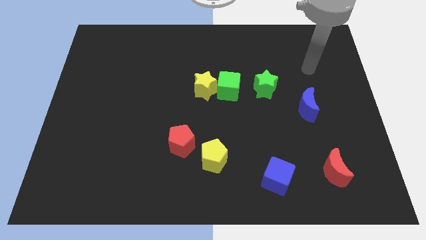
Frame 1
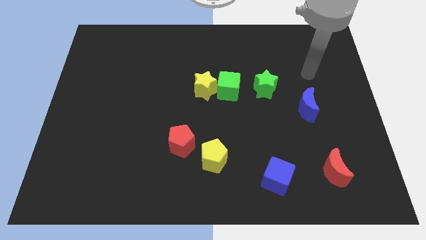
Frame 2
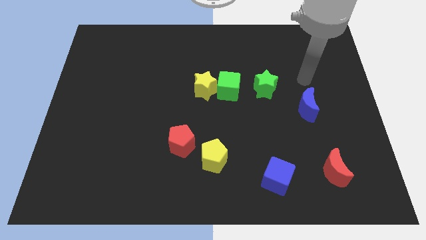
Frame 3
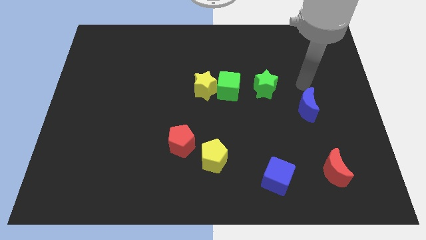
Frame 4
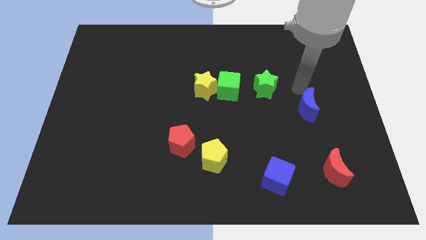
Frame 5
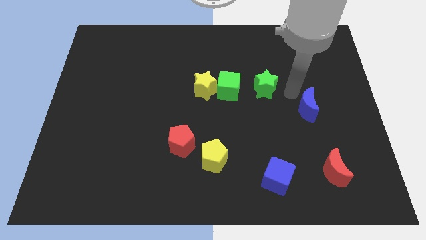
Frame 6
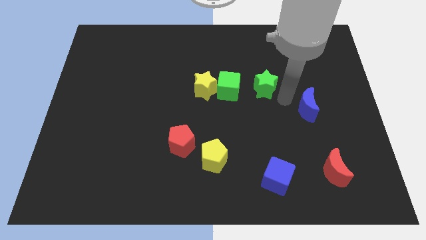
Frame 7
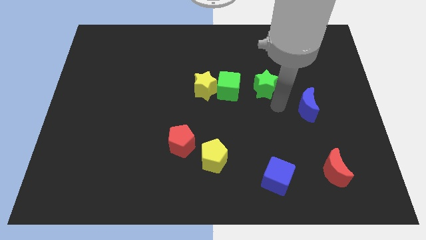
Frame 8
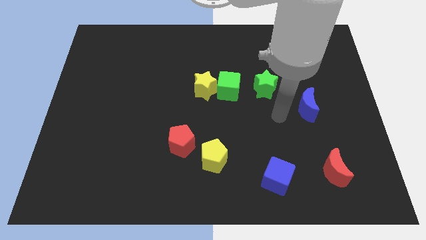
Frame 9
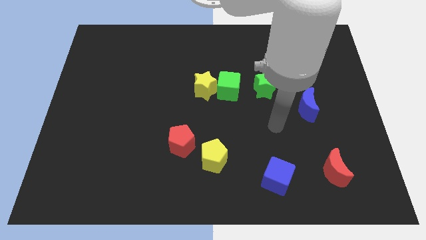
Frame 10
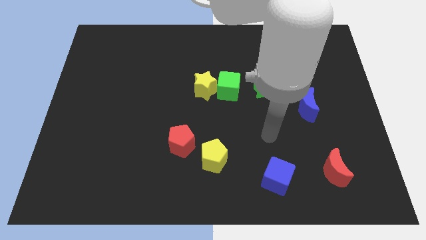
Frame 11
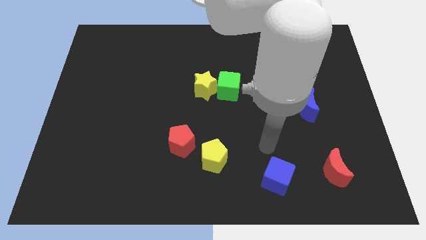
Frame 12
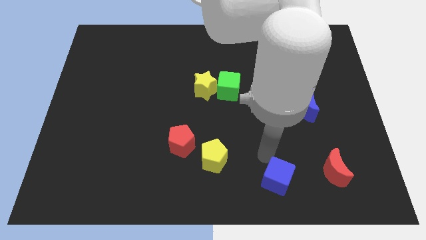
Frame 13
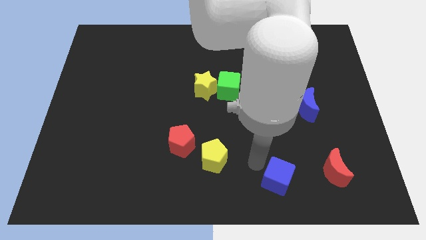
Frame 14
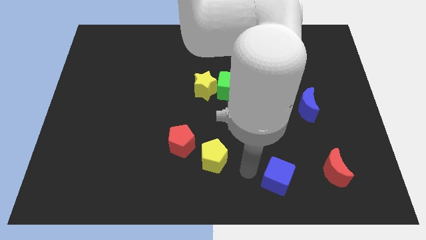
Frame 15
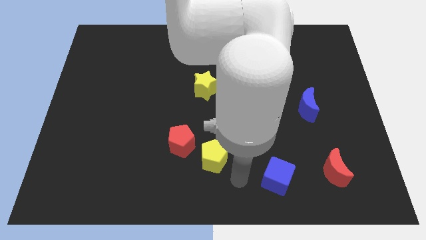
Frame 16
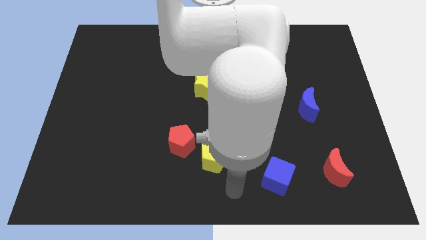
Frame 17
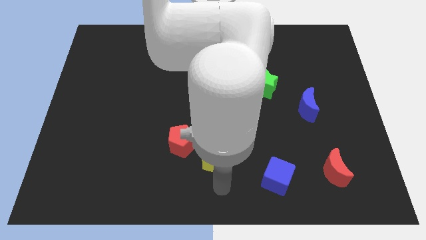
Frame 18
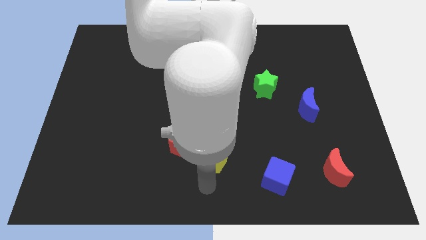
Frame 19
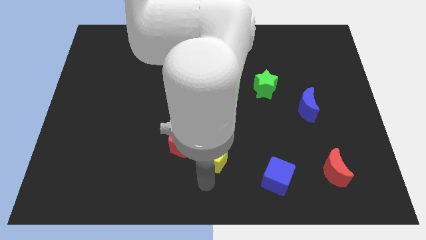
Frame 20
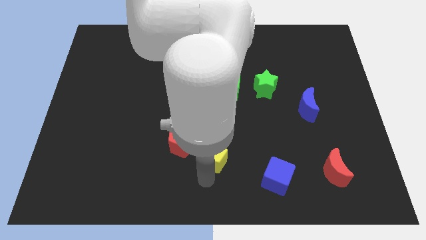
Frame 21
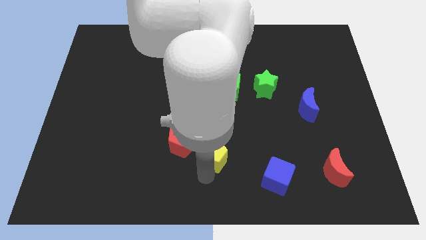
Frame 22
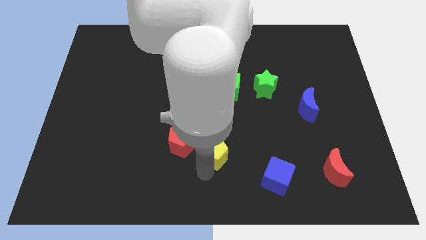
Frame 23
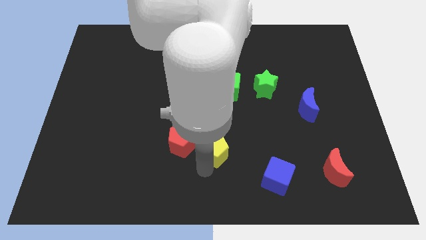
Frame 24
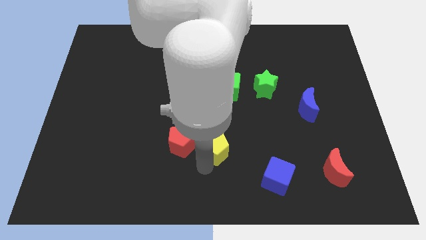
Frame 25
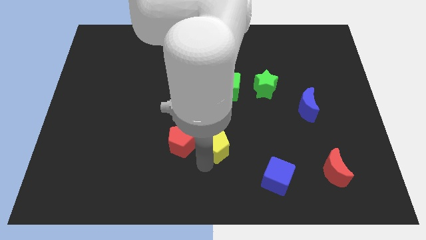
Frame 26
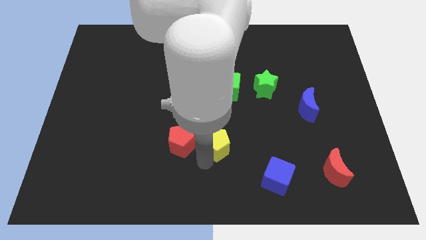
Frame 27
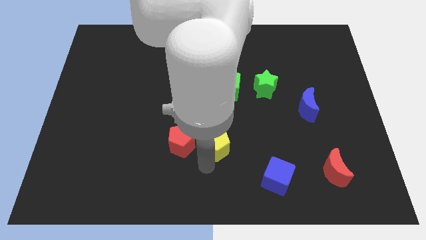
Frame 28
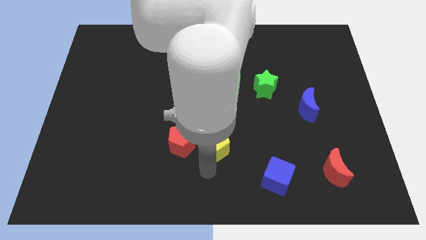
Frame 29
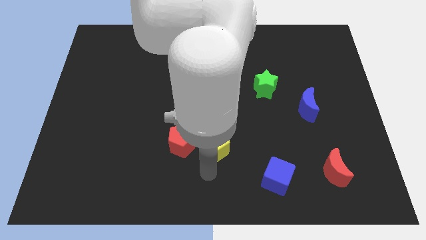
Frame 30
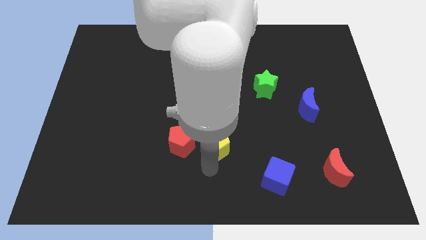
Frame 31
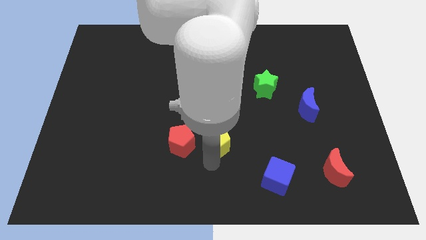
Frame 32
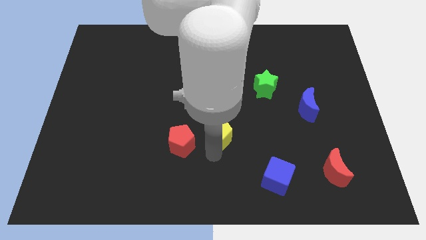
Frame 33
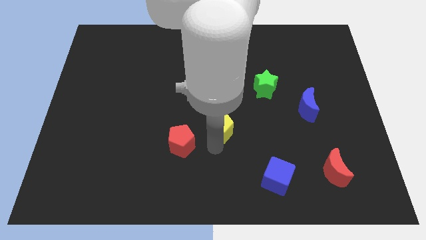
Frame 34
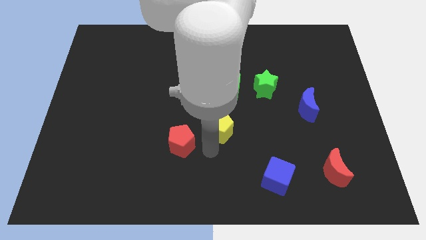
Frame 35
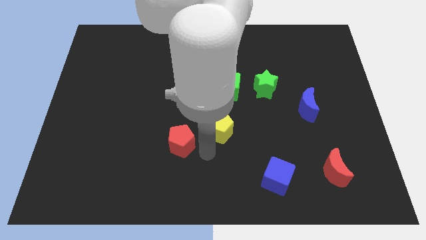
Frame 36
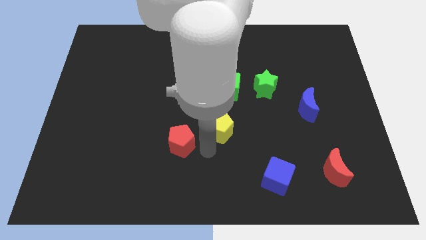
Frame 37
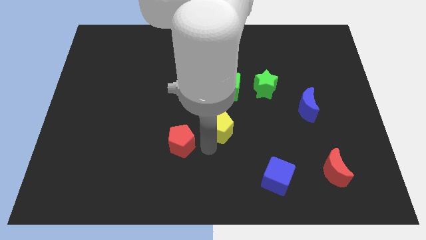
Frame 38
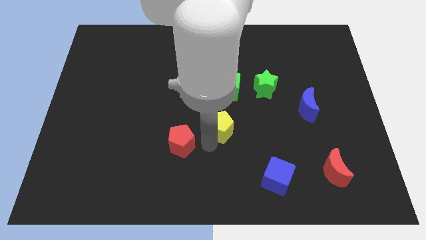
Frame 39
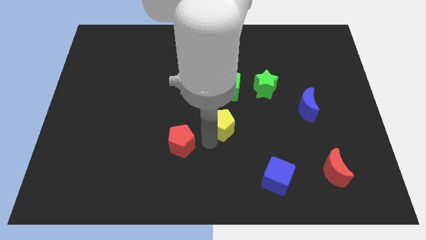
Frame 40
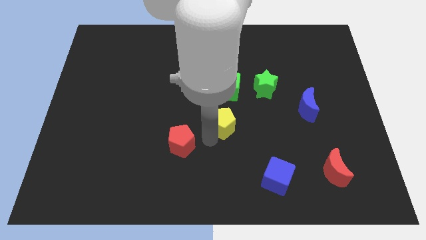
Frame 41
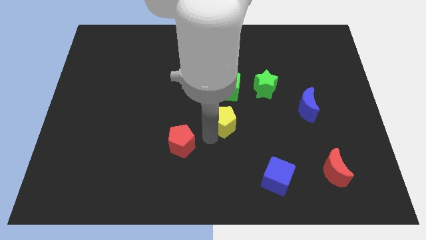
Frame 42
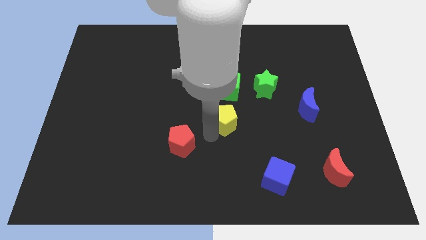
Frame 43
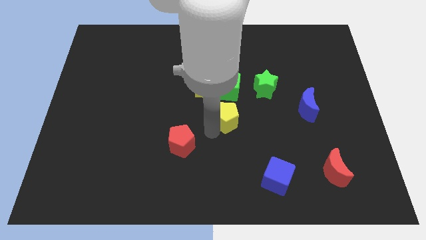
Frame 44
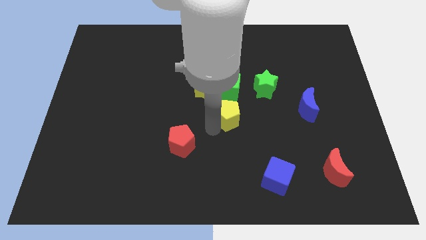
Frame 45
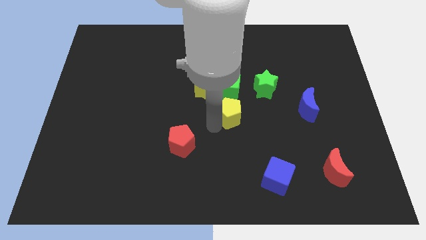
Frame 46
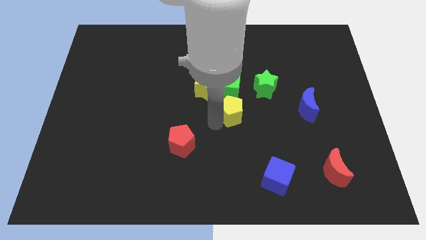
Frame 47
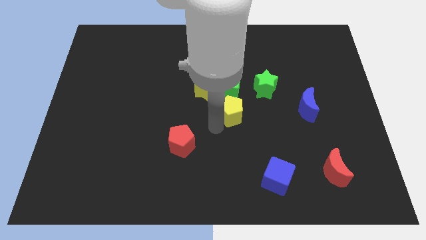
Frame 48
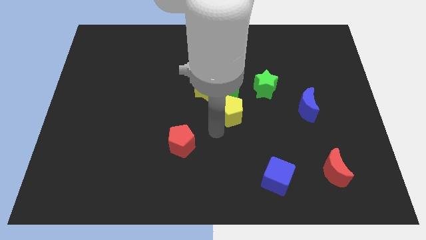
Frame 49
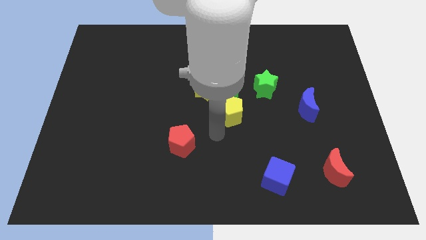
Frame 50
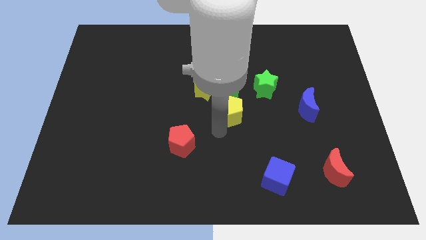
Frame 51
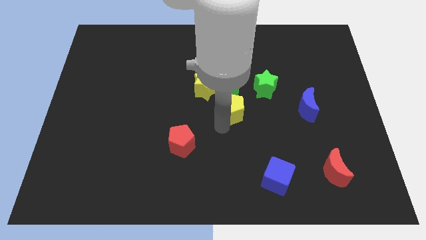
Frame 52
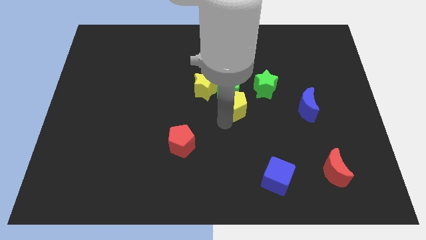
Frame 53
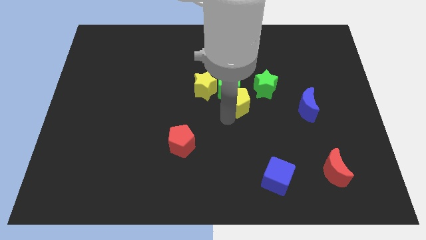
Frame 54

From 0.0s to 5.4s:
move the yellow pentagon right of the yellow star

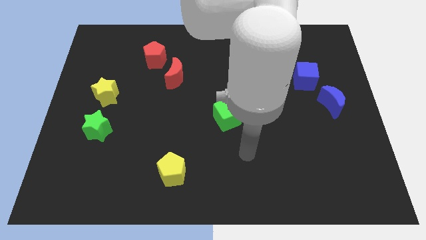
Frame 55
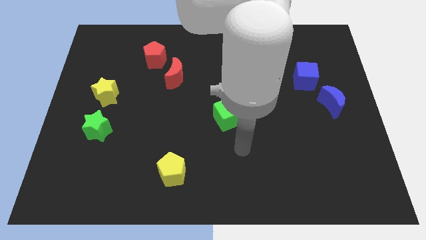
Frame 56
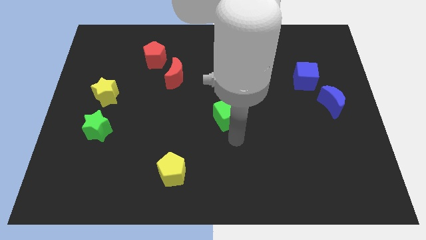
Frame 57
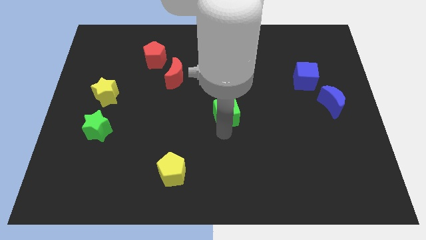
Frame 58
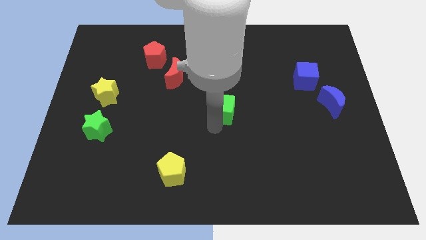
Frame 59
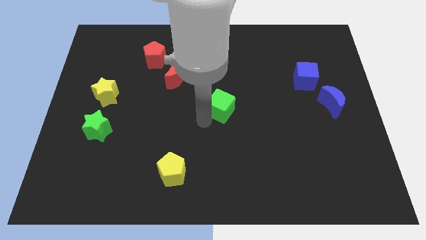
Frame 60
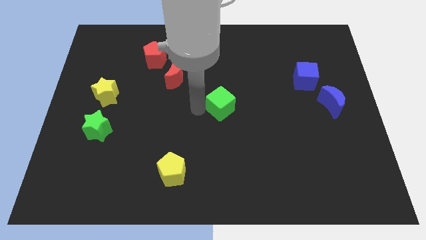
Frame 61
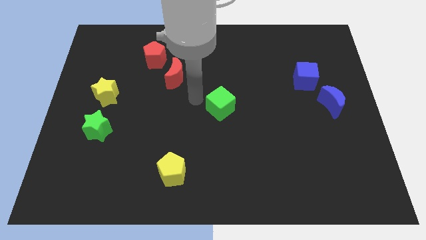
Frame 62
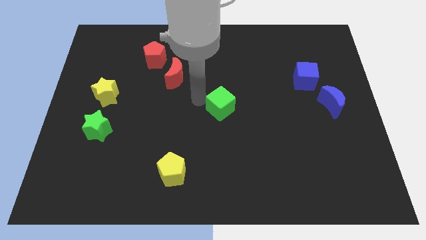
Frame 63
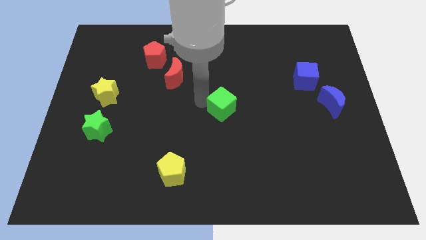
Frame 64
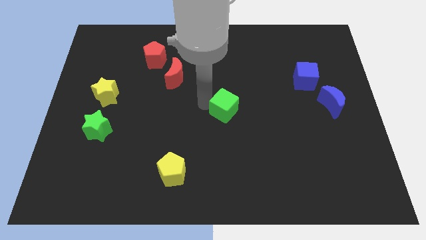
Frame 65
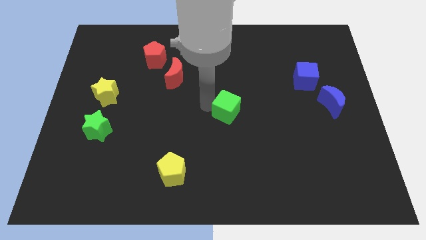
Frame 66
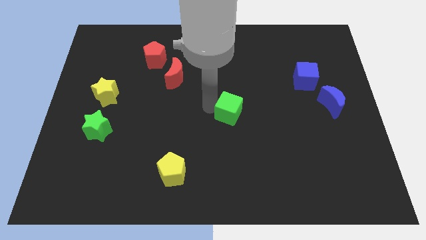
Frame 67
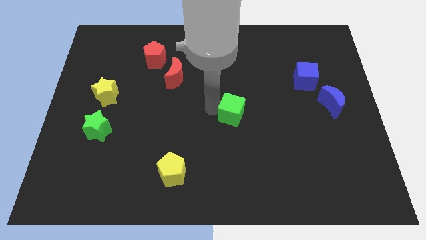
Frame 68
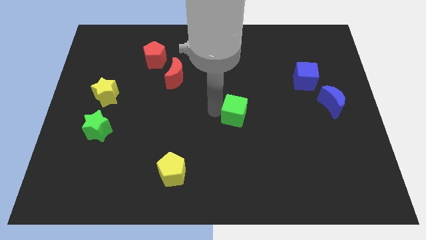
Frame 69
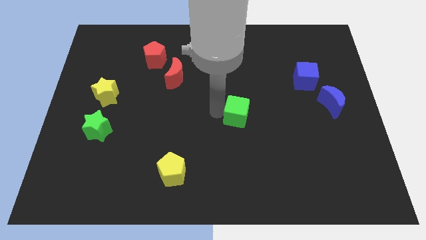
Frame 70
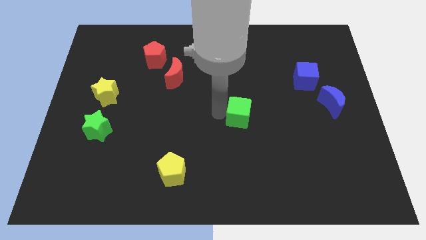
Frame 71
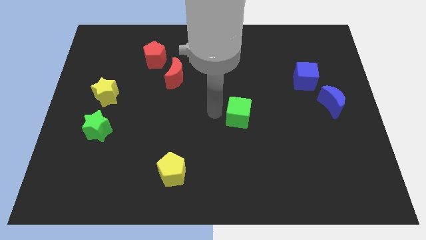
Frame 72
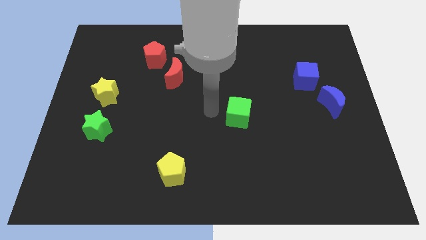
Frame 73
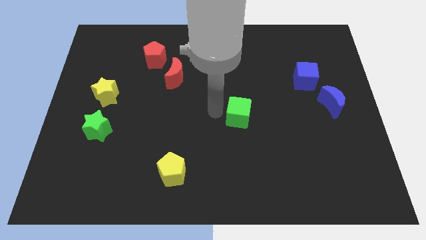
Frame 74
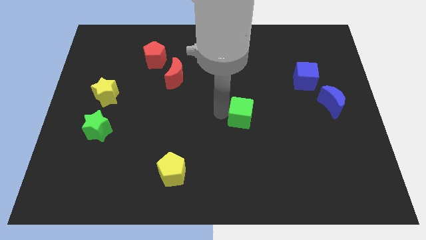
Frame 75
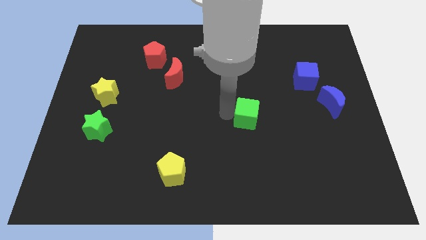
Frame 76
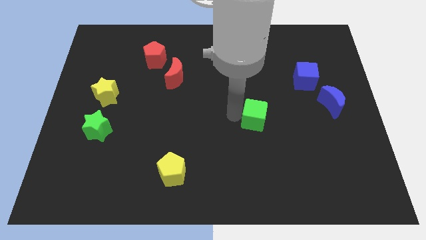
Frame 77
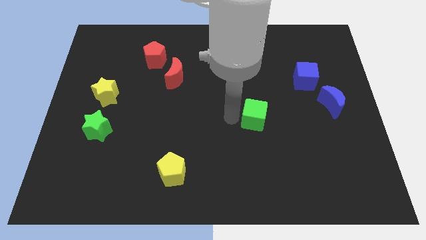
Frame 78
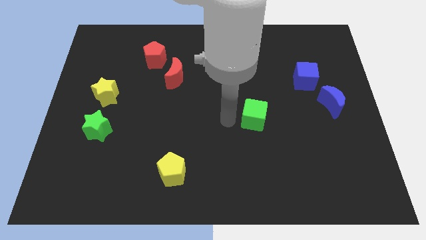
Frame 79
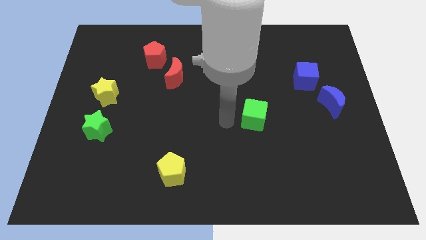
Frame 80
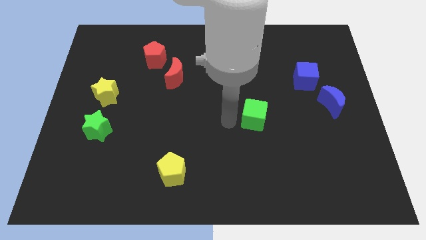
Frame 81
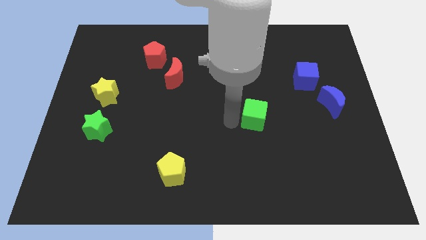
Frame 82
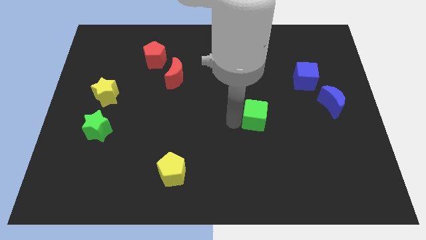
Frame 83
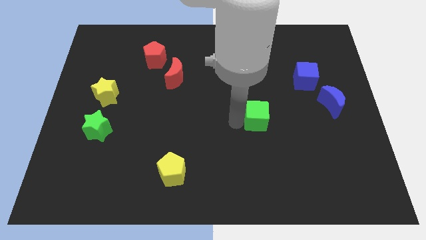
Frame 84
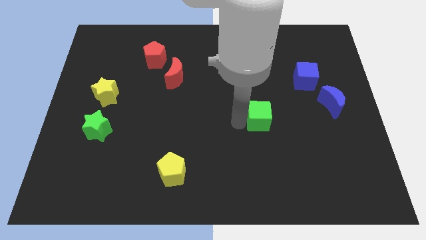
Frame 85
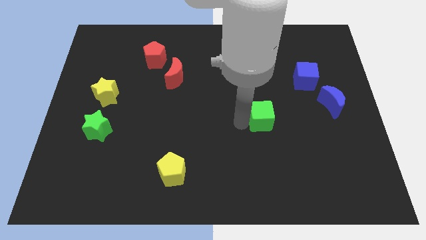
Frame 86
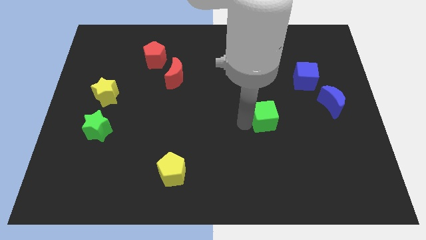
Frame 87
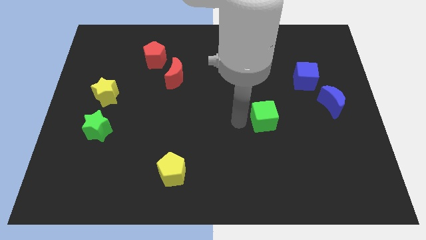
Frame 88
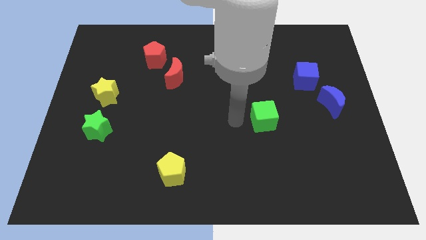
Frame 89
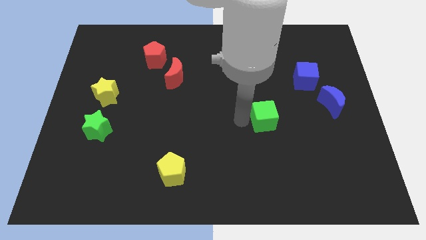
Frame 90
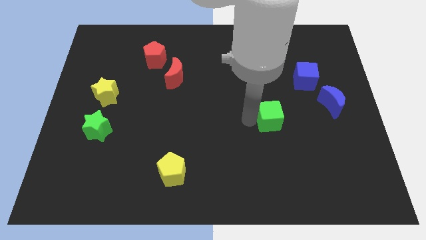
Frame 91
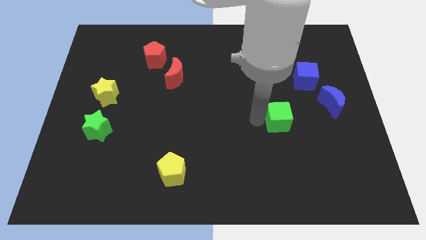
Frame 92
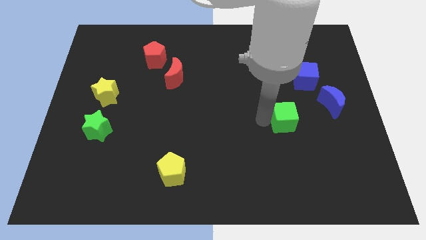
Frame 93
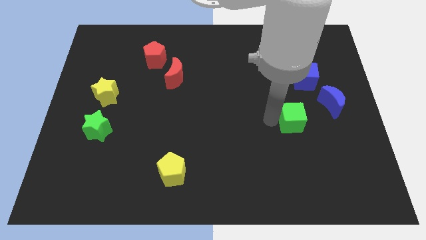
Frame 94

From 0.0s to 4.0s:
move the green cube diagonally down and to the left of the blue moon
